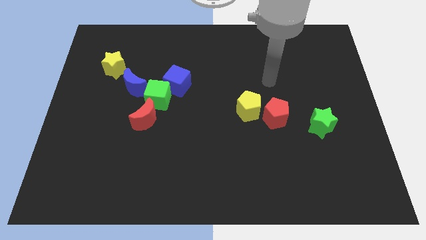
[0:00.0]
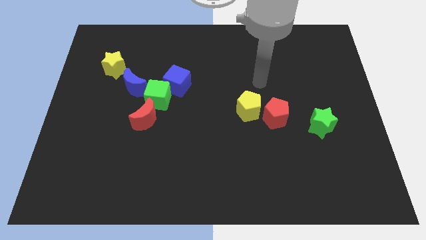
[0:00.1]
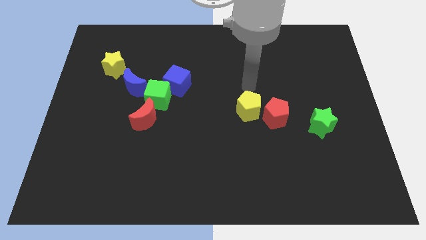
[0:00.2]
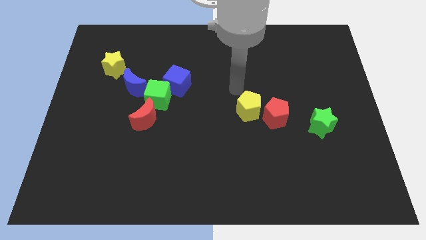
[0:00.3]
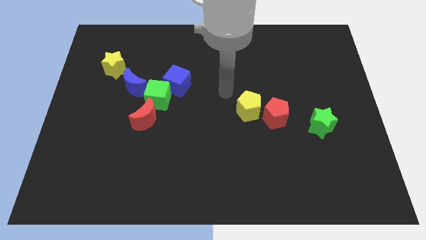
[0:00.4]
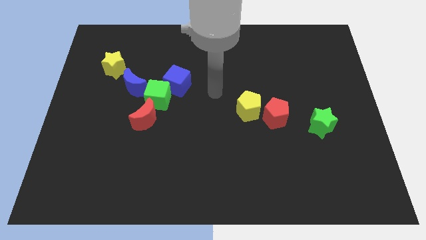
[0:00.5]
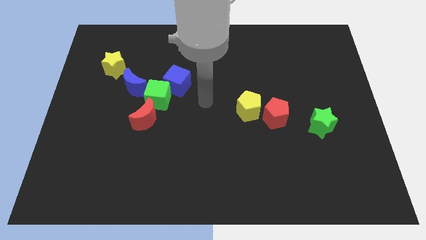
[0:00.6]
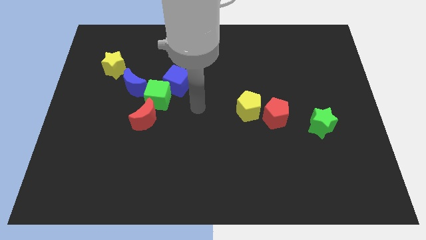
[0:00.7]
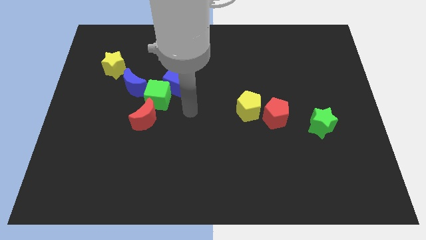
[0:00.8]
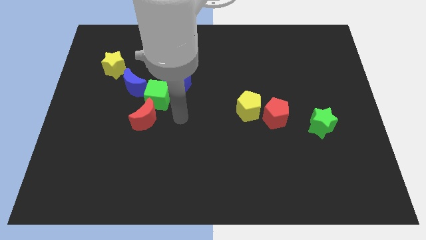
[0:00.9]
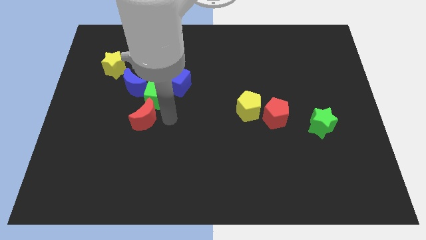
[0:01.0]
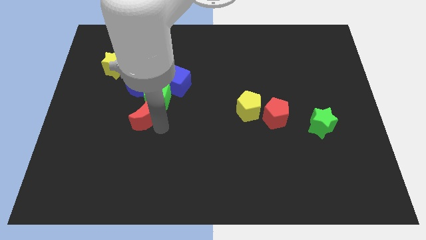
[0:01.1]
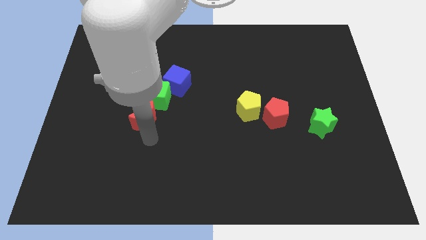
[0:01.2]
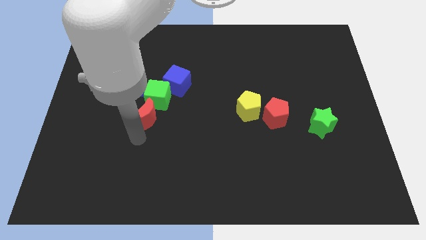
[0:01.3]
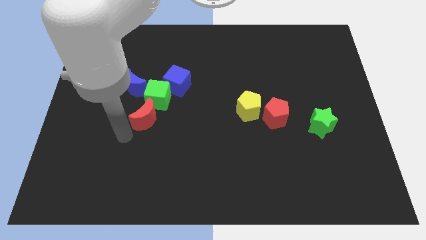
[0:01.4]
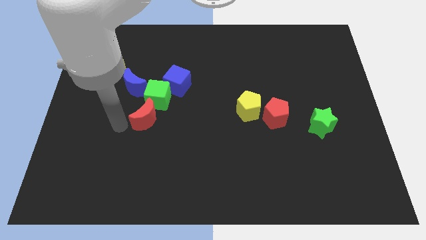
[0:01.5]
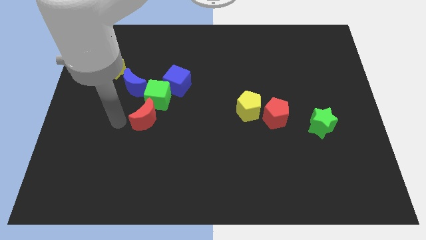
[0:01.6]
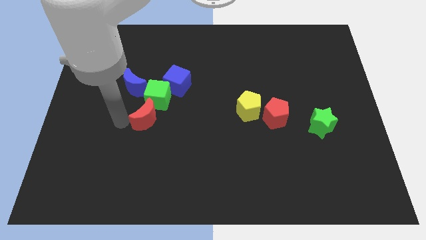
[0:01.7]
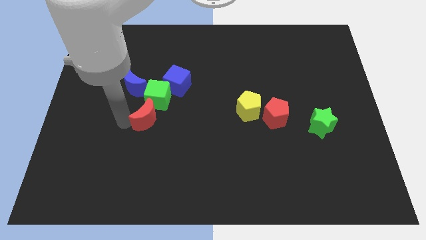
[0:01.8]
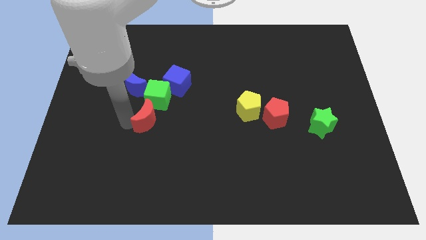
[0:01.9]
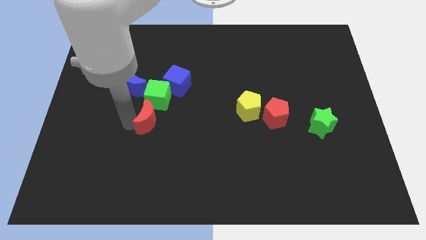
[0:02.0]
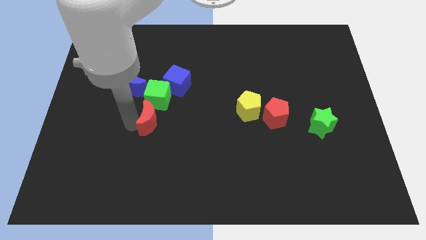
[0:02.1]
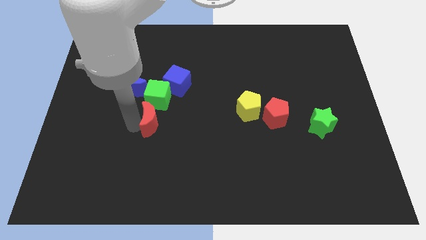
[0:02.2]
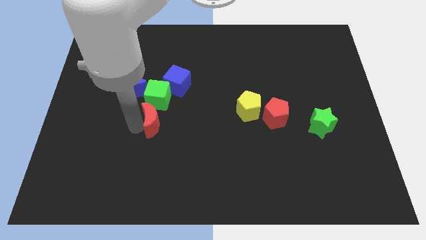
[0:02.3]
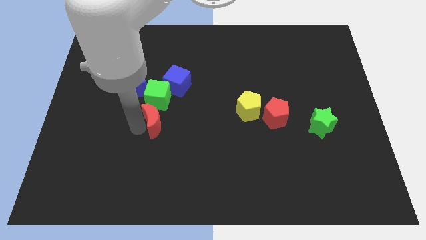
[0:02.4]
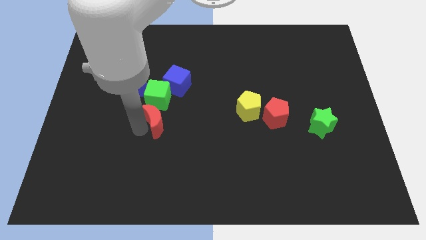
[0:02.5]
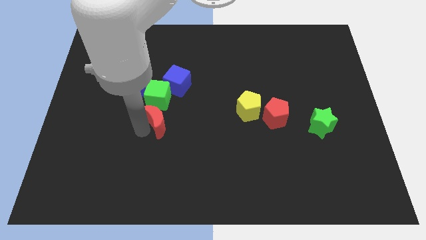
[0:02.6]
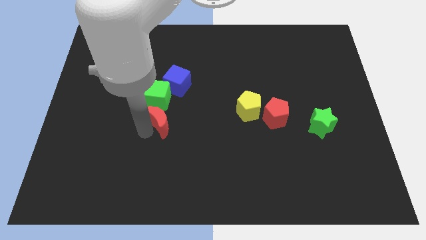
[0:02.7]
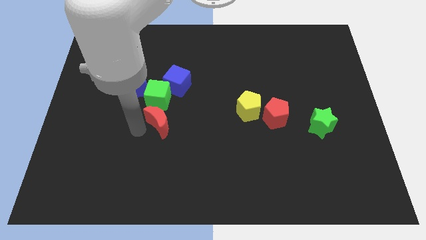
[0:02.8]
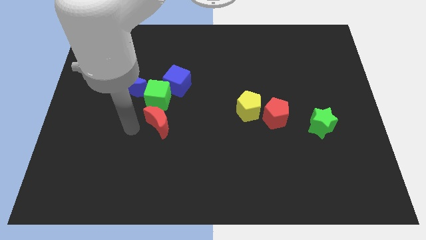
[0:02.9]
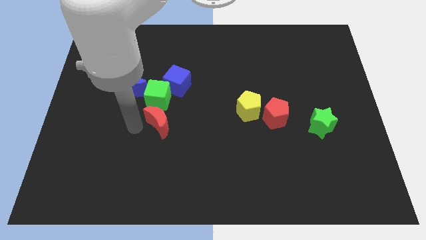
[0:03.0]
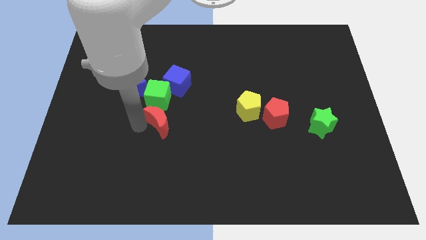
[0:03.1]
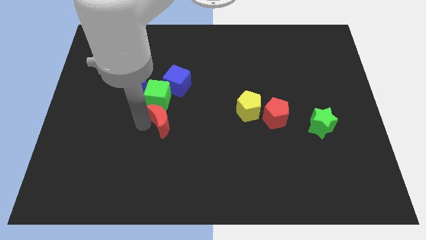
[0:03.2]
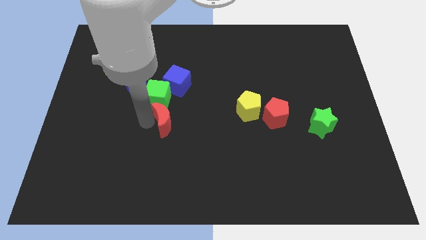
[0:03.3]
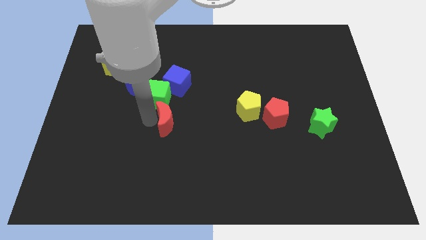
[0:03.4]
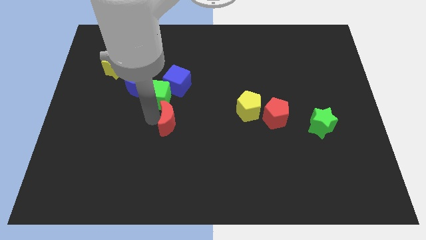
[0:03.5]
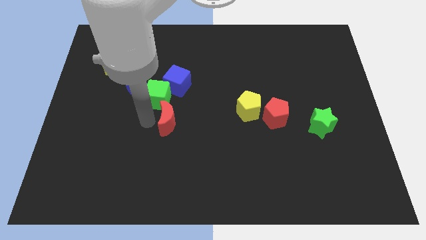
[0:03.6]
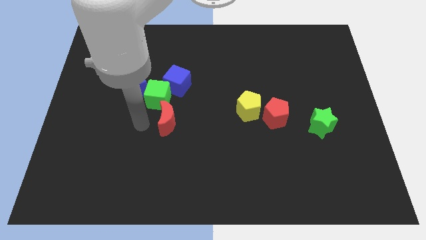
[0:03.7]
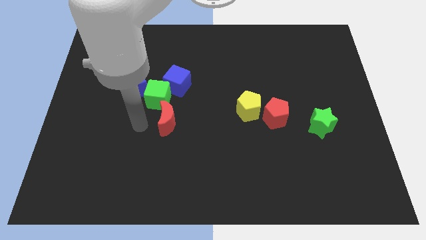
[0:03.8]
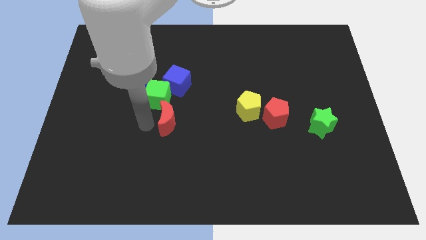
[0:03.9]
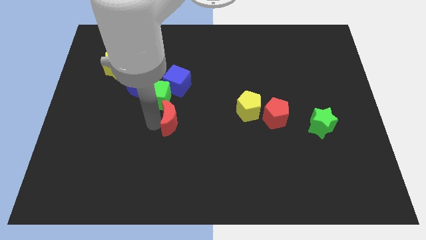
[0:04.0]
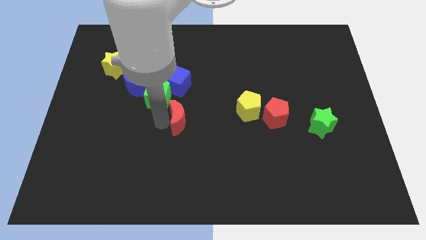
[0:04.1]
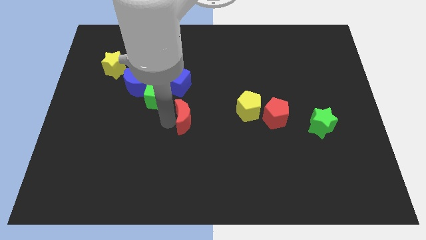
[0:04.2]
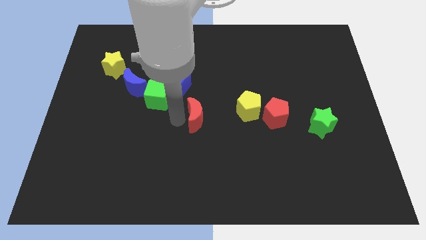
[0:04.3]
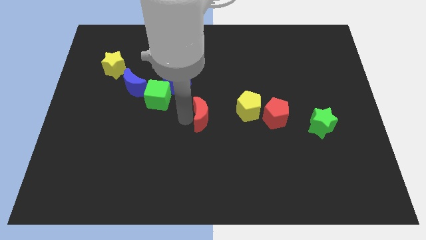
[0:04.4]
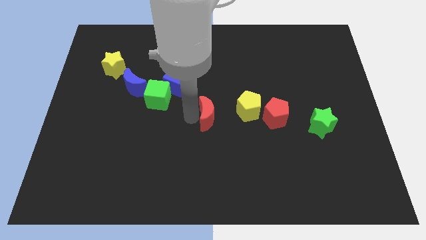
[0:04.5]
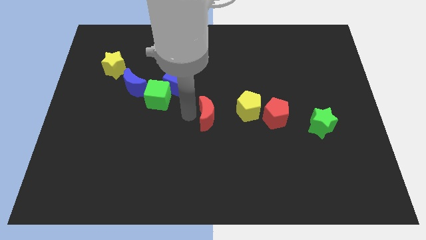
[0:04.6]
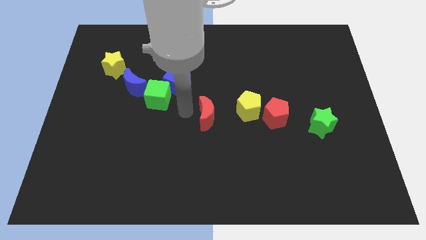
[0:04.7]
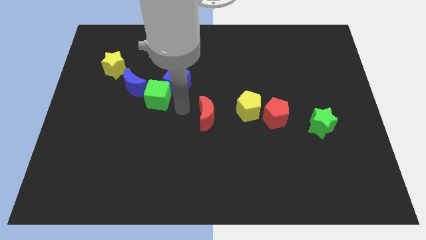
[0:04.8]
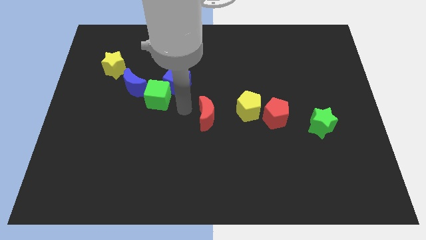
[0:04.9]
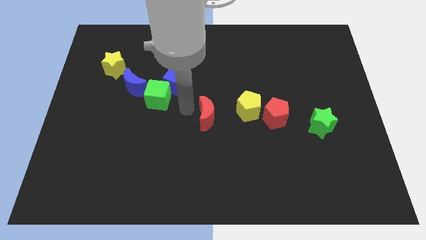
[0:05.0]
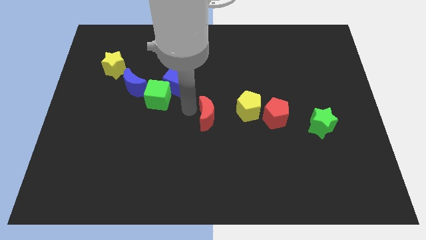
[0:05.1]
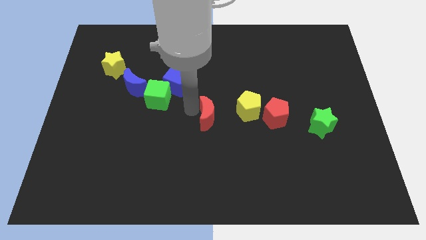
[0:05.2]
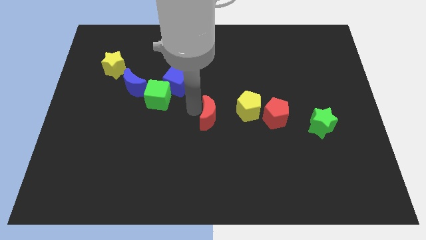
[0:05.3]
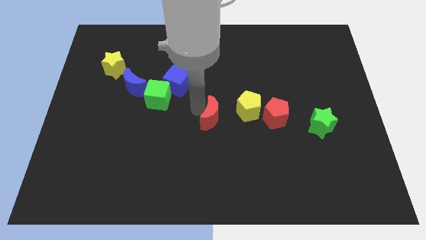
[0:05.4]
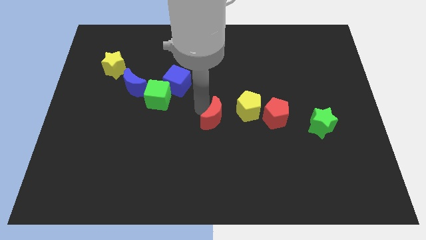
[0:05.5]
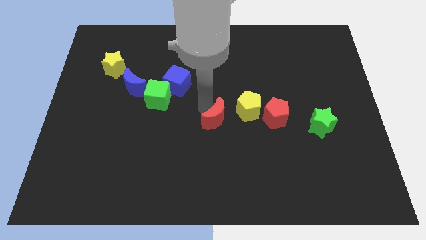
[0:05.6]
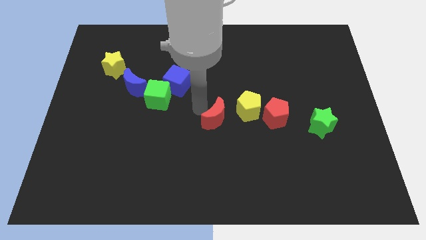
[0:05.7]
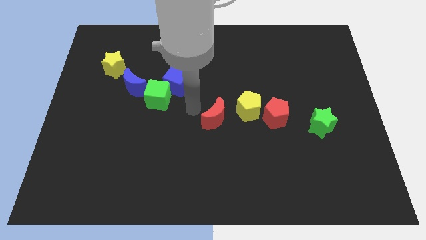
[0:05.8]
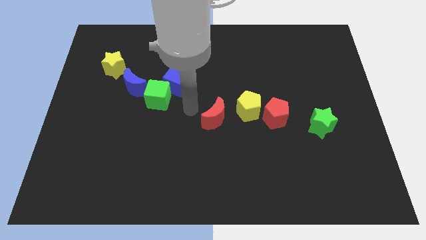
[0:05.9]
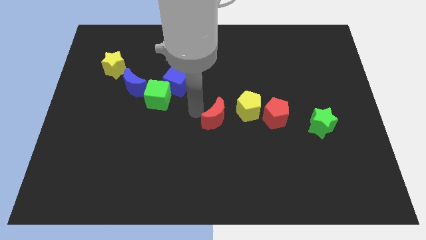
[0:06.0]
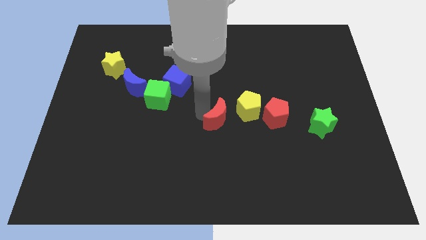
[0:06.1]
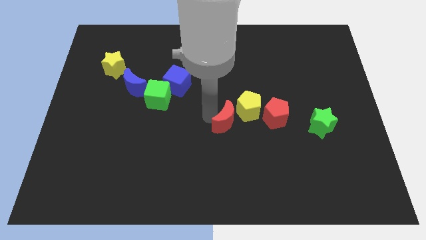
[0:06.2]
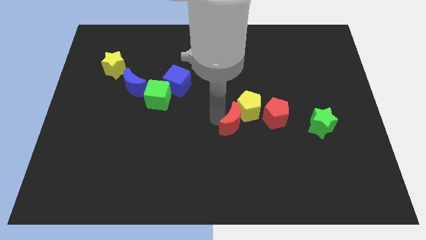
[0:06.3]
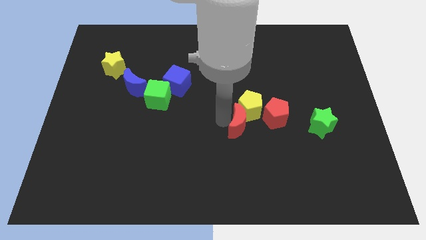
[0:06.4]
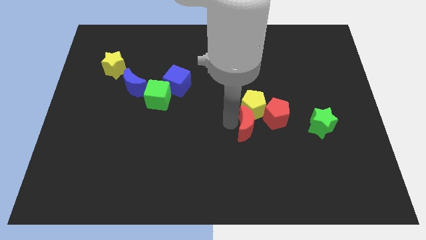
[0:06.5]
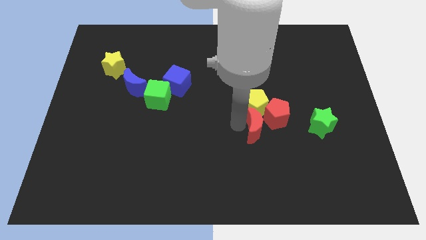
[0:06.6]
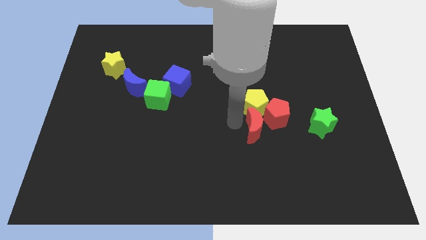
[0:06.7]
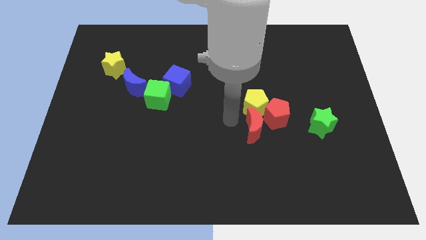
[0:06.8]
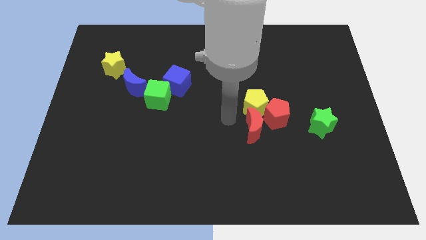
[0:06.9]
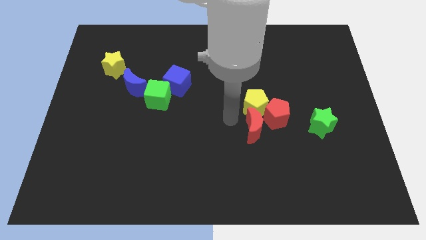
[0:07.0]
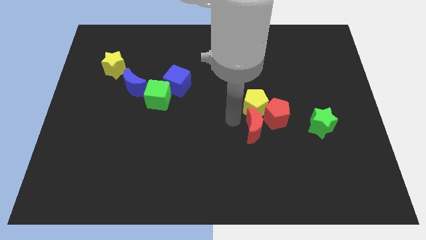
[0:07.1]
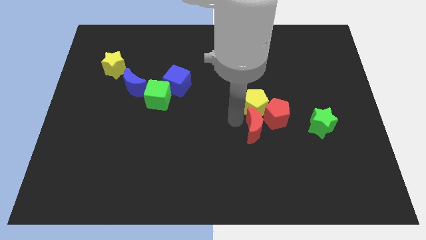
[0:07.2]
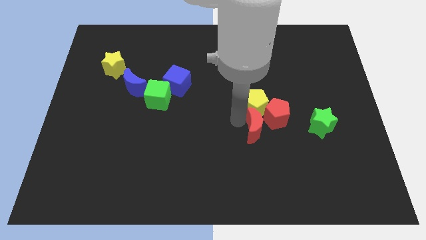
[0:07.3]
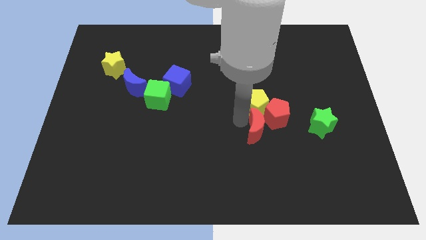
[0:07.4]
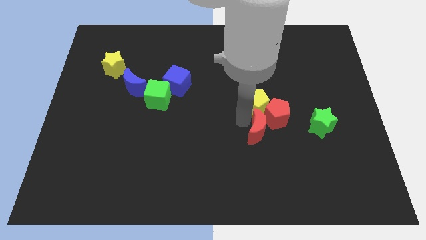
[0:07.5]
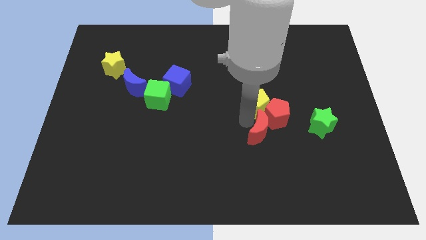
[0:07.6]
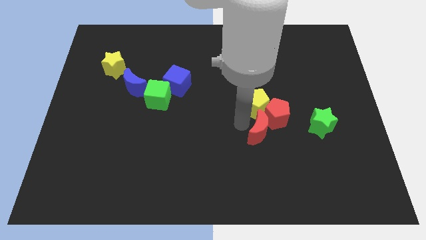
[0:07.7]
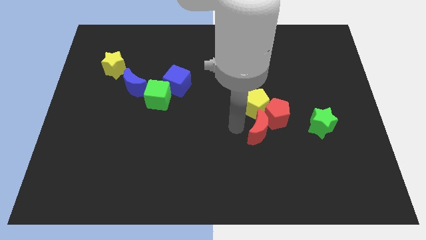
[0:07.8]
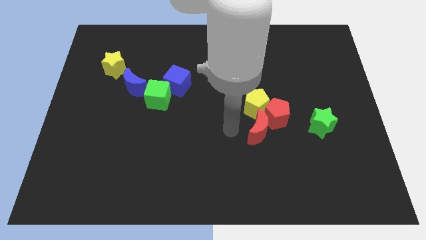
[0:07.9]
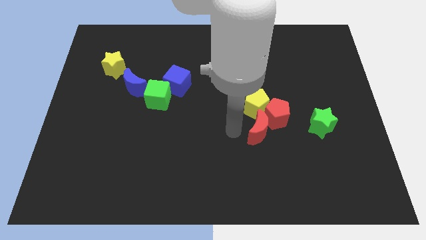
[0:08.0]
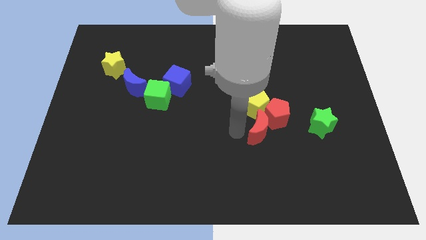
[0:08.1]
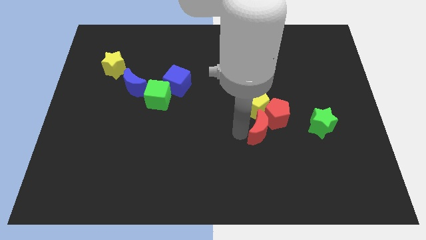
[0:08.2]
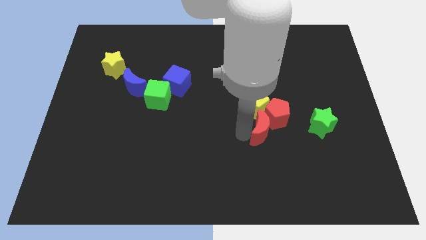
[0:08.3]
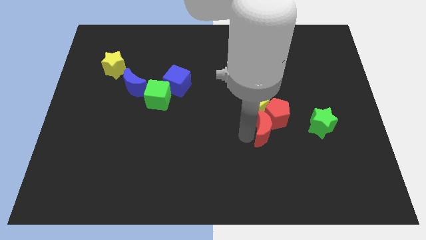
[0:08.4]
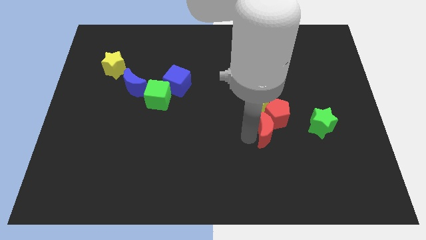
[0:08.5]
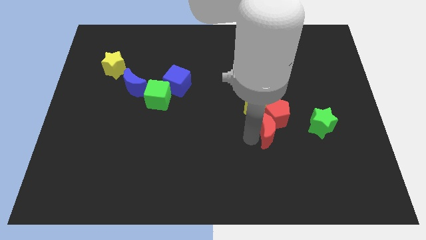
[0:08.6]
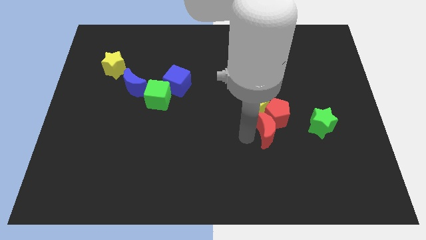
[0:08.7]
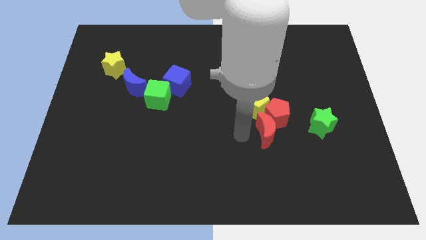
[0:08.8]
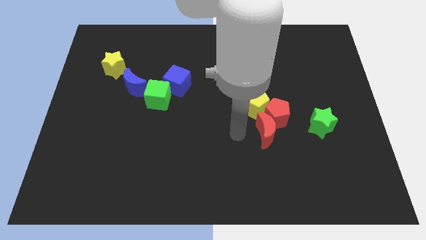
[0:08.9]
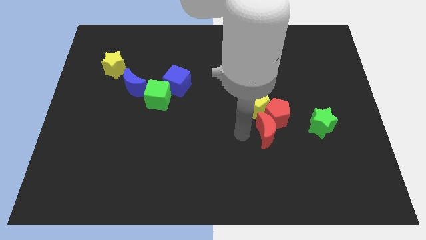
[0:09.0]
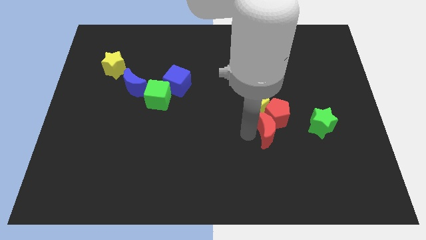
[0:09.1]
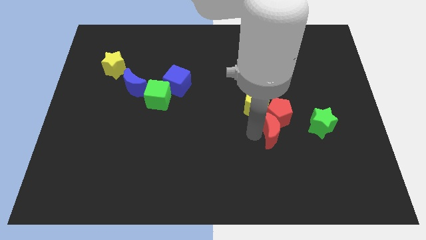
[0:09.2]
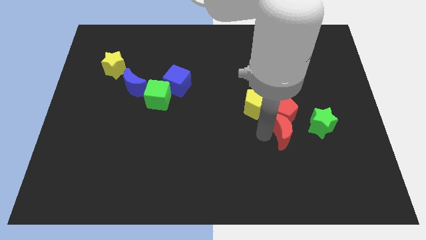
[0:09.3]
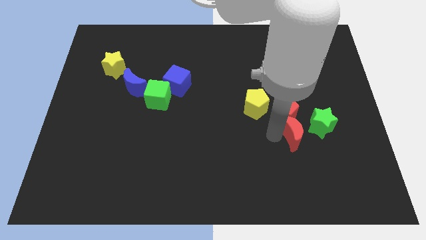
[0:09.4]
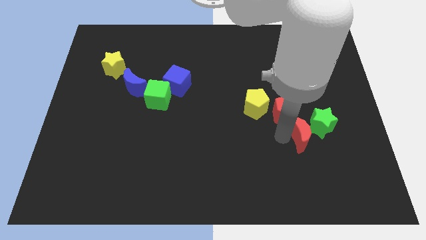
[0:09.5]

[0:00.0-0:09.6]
slide the red moon to the green star
